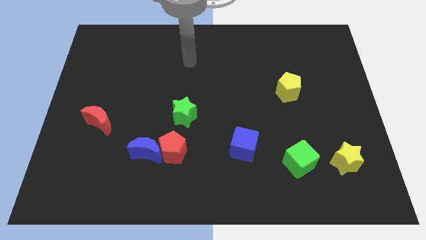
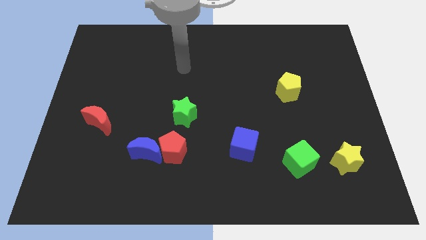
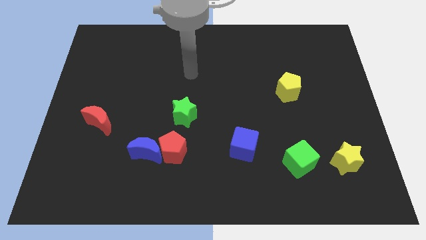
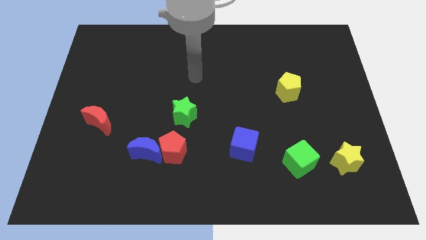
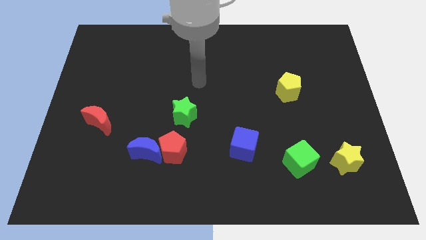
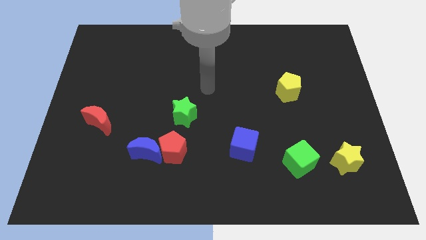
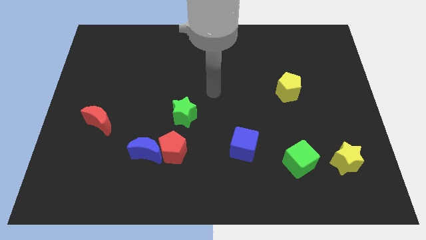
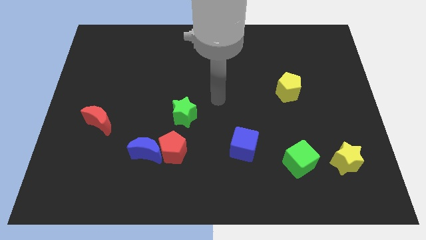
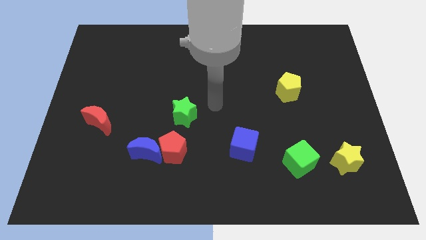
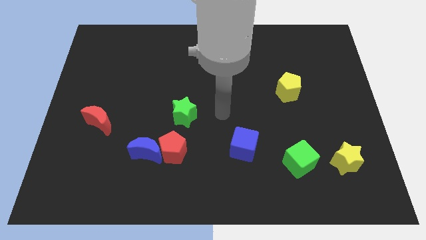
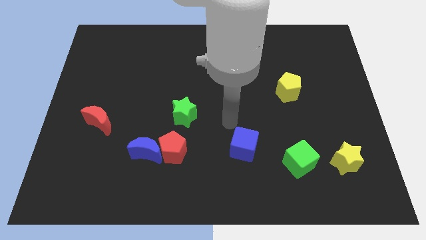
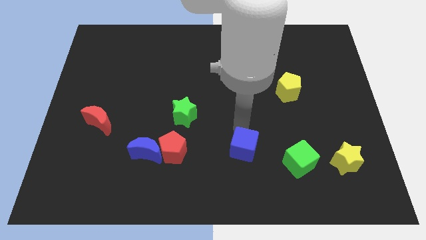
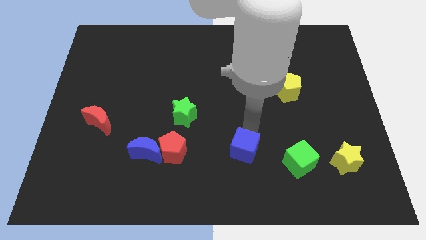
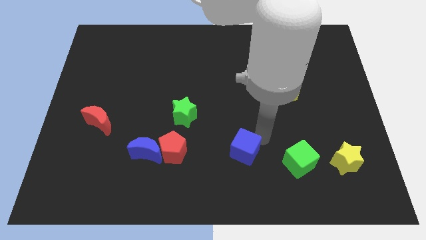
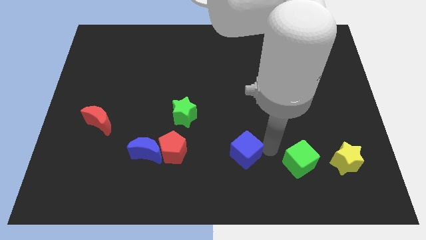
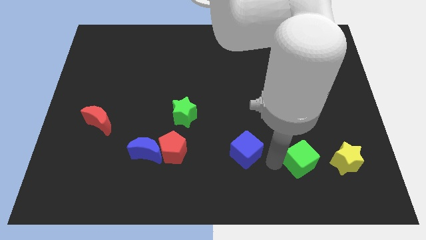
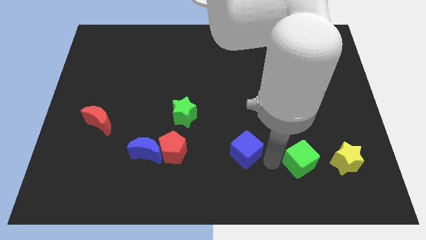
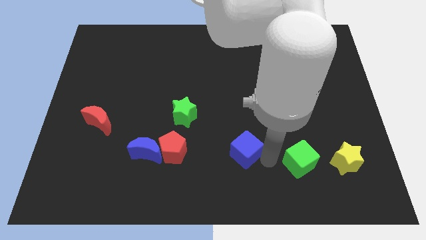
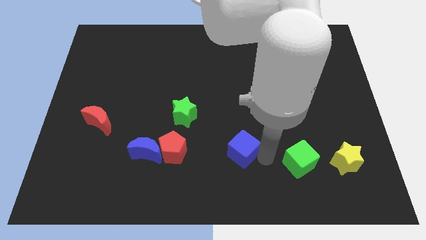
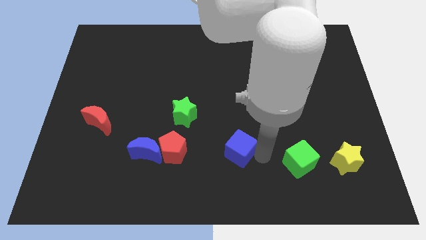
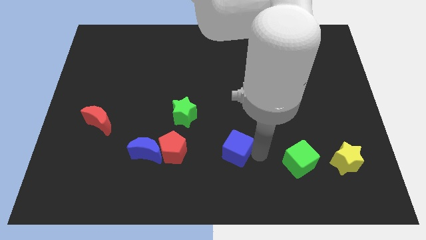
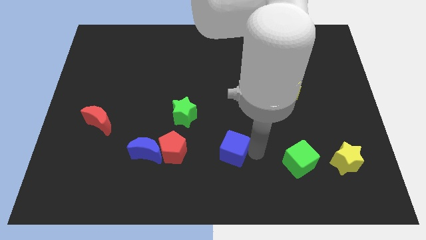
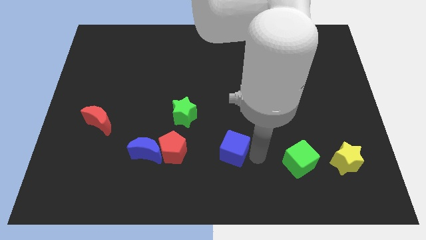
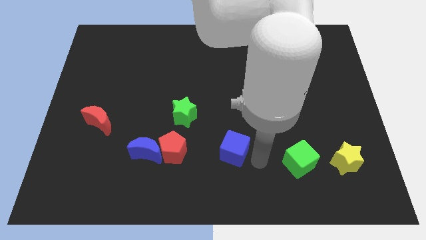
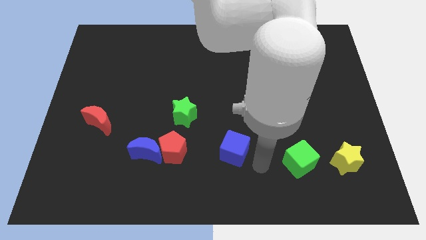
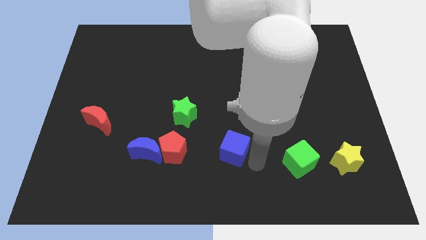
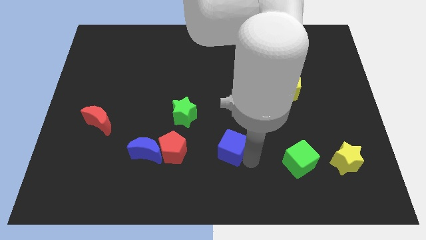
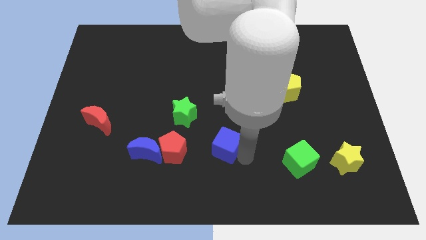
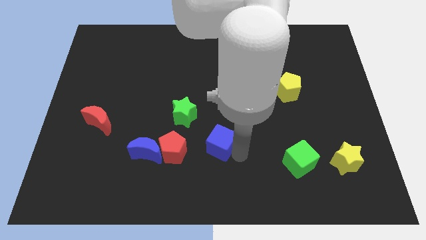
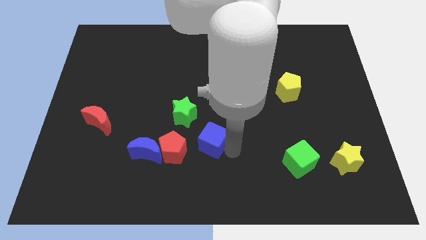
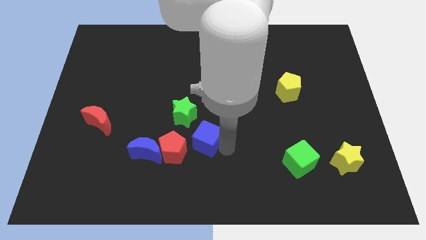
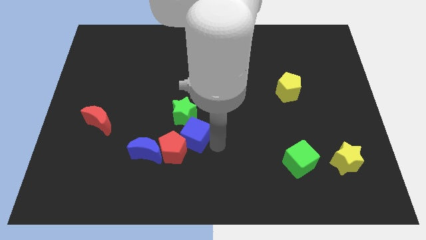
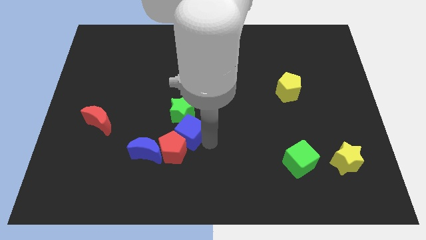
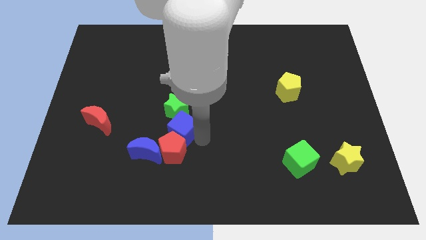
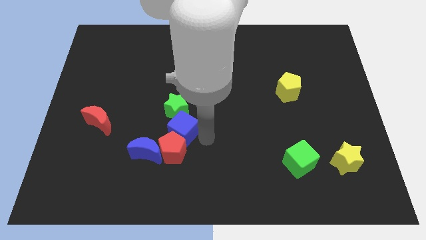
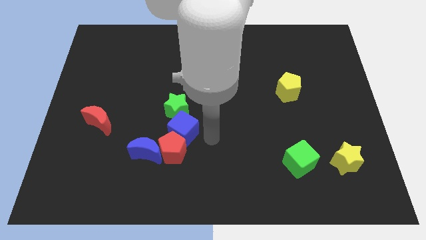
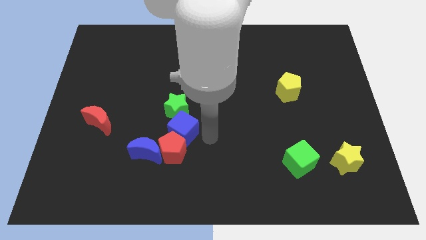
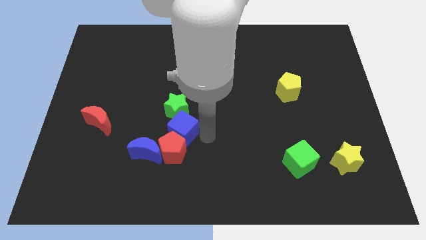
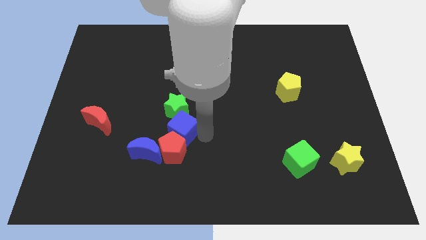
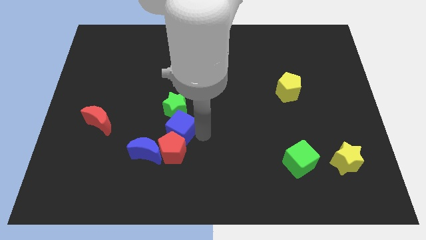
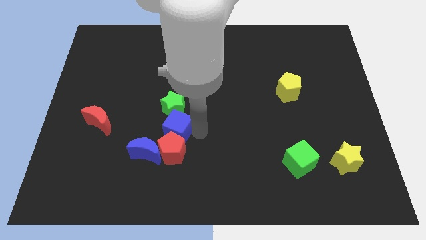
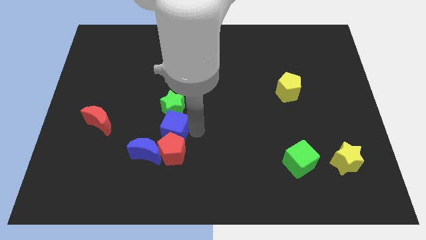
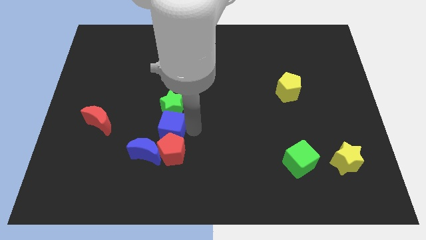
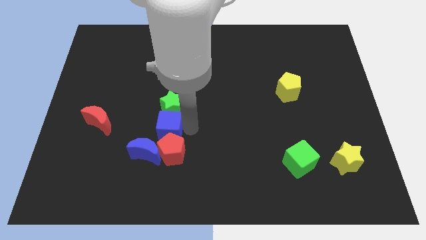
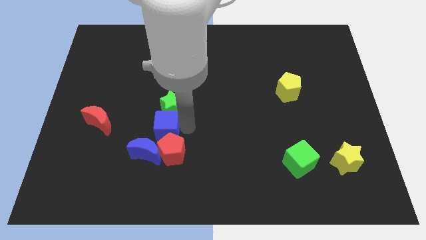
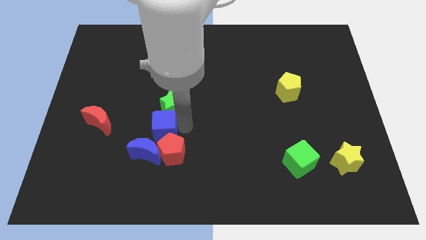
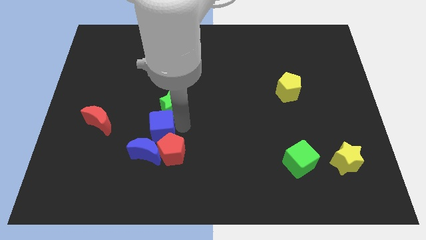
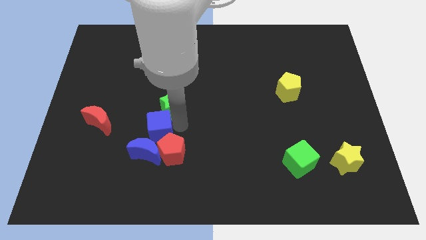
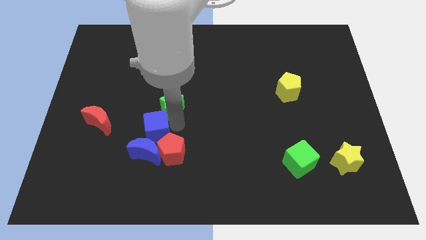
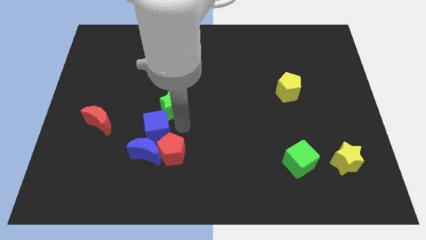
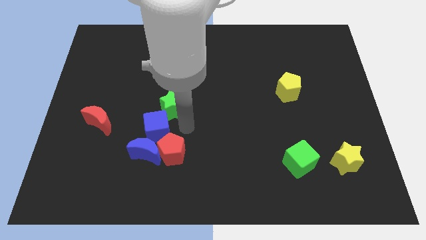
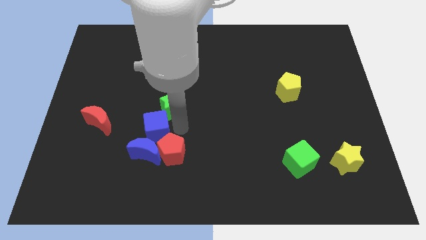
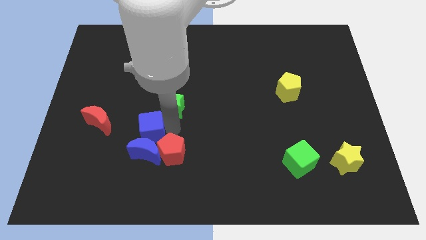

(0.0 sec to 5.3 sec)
push the blue cube to the top left side of the blue moon

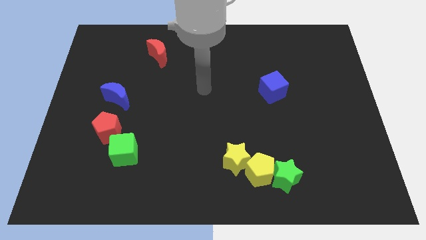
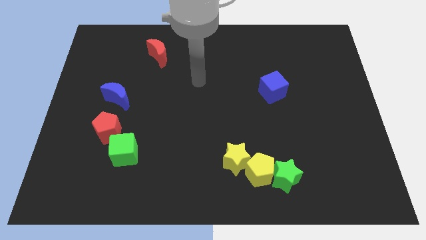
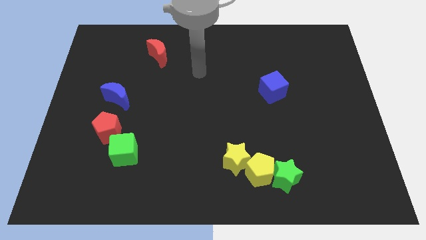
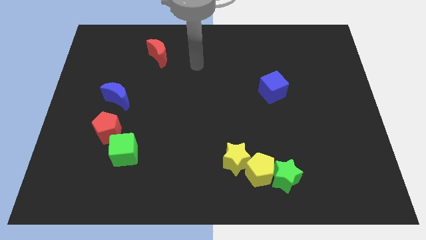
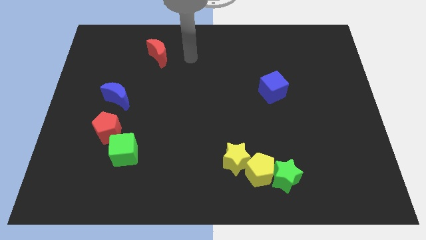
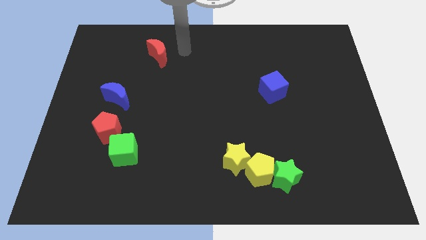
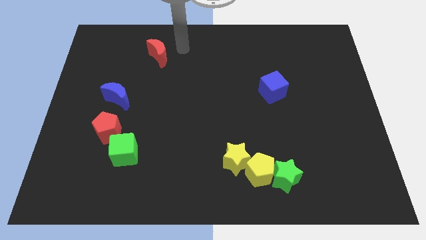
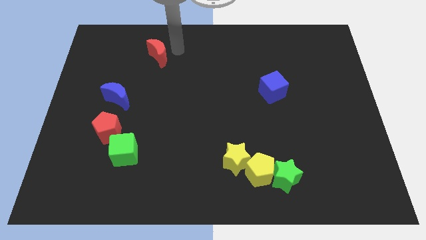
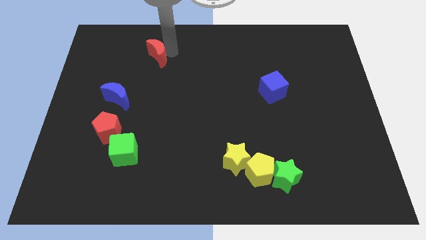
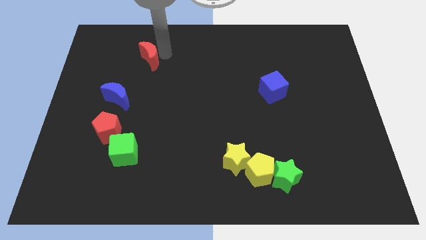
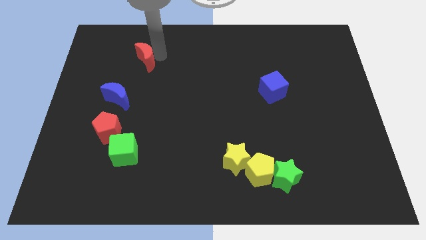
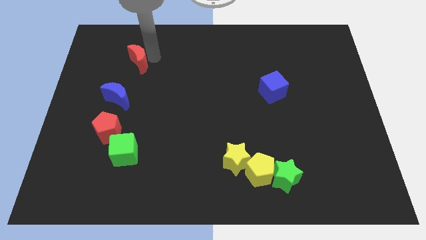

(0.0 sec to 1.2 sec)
move the red moon to the top side of the blue moon

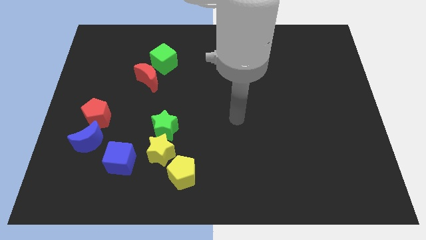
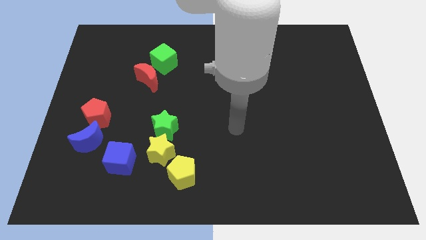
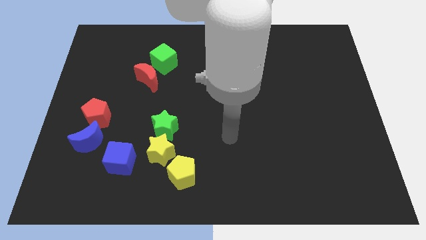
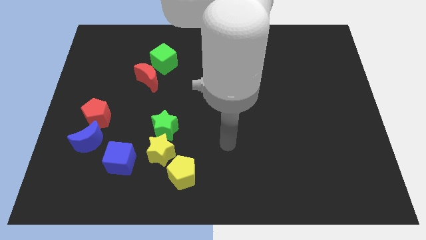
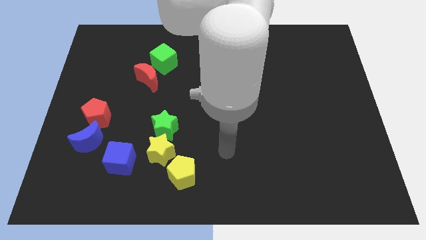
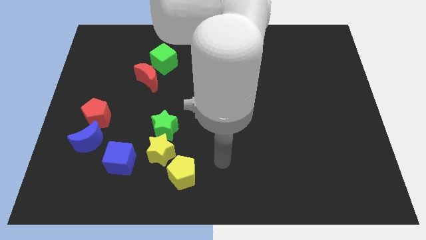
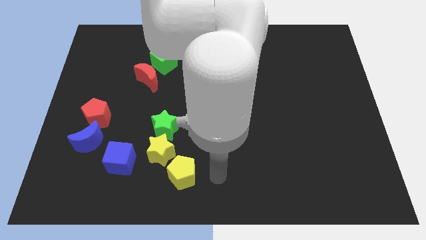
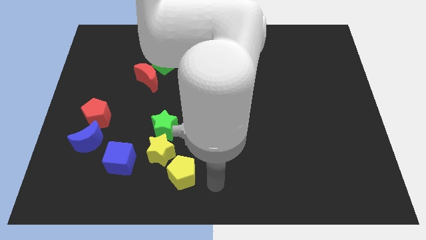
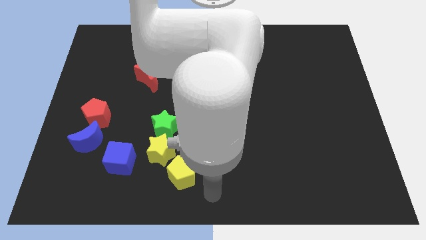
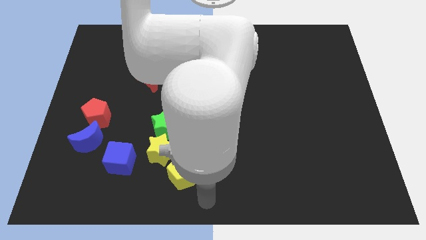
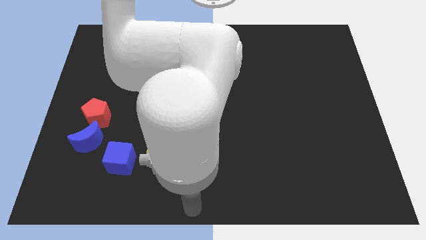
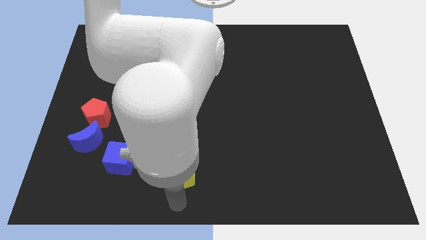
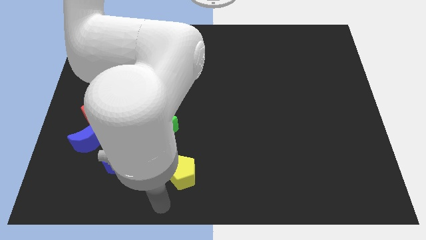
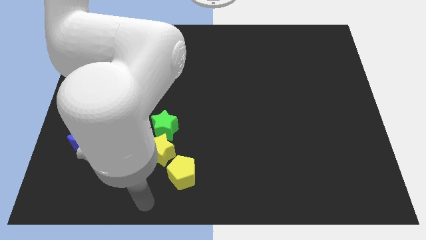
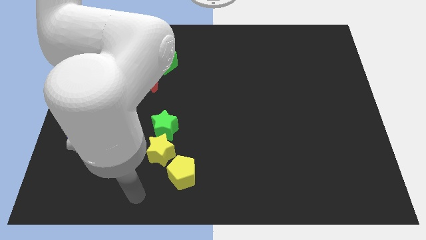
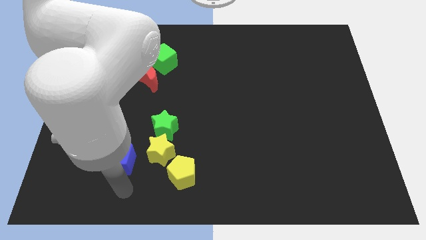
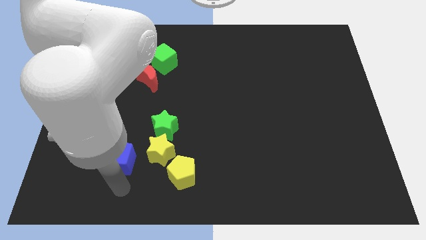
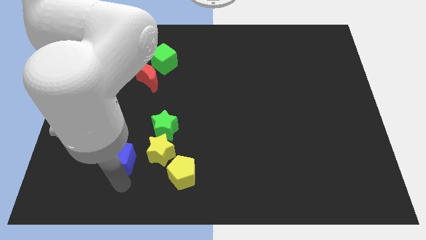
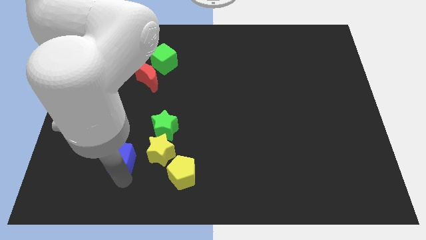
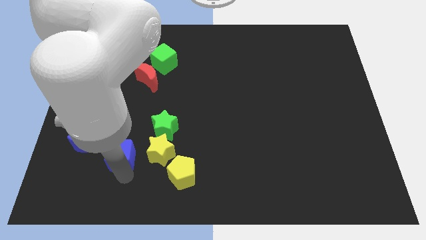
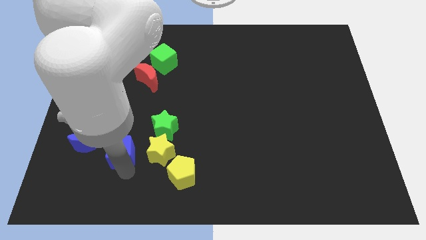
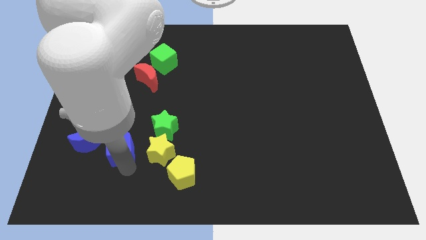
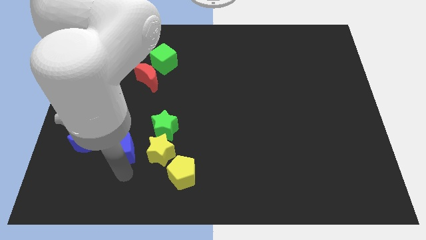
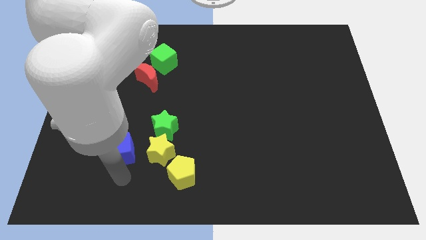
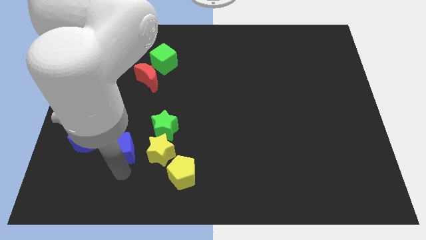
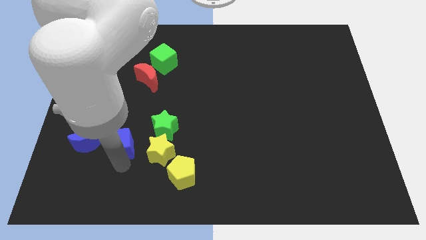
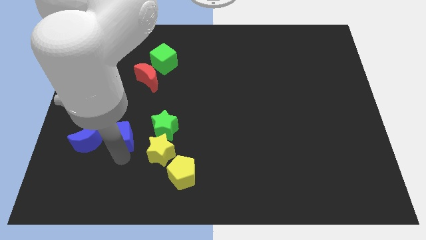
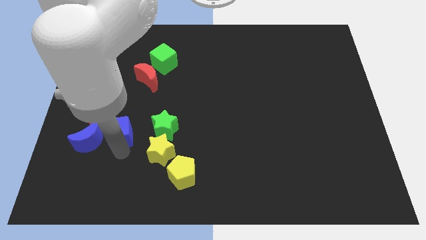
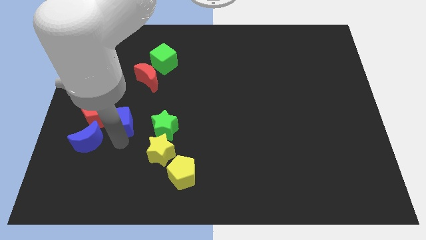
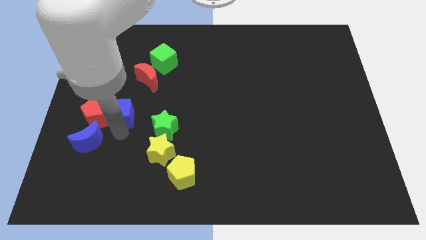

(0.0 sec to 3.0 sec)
put the blue cube diagonally up and to the right of the red pentagon
